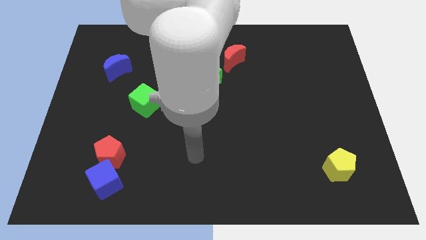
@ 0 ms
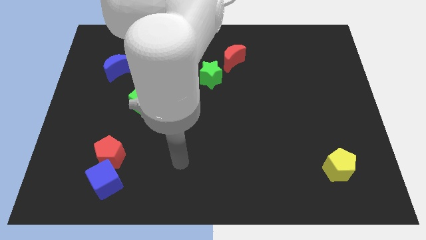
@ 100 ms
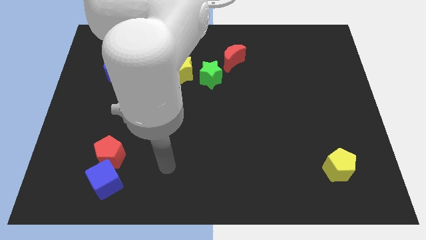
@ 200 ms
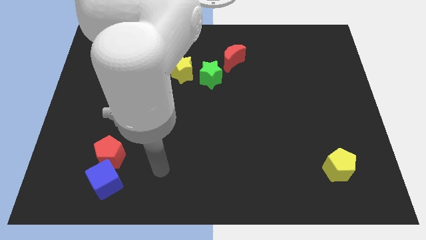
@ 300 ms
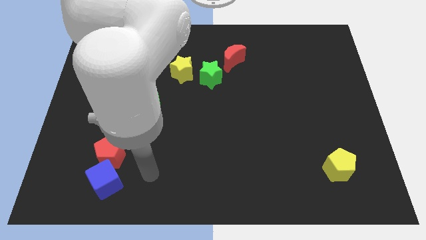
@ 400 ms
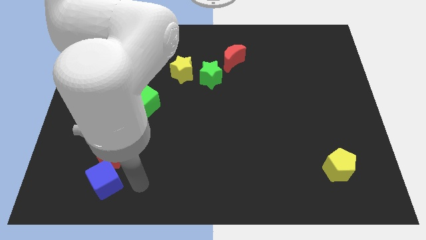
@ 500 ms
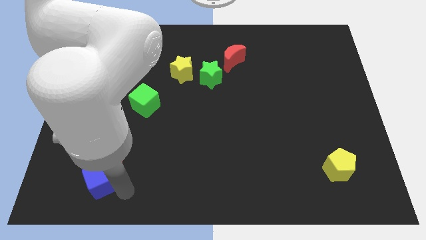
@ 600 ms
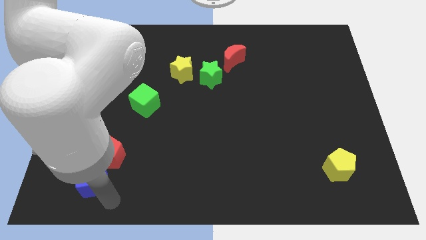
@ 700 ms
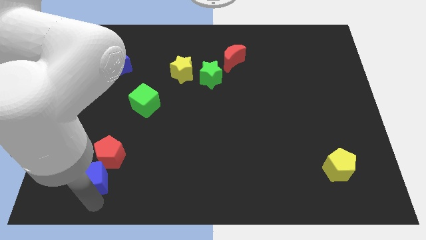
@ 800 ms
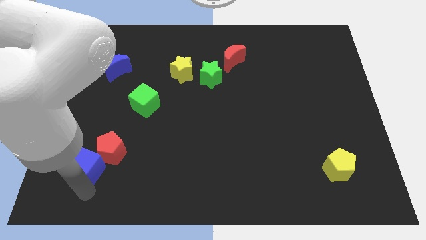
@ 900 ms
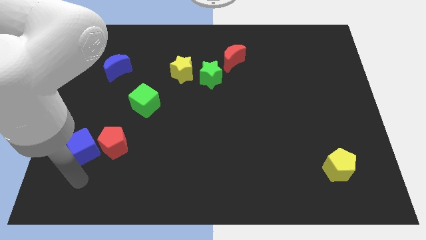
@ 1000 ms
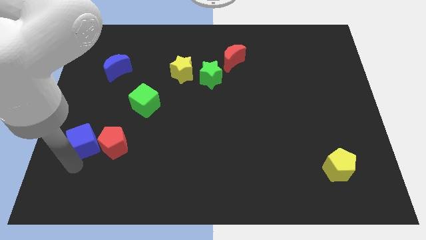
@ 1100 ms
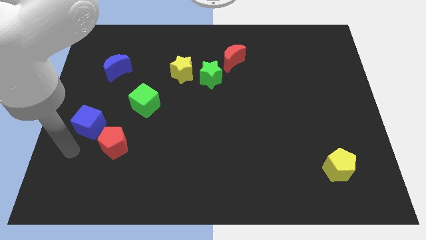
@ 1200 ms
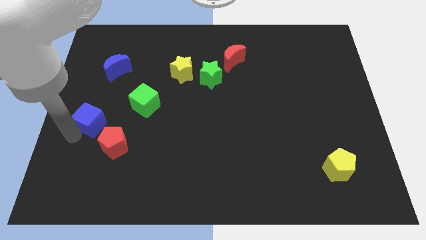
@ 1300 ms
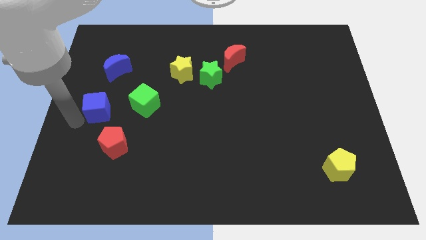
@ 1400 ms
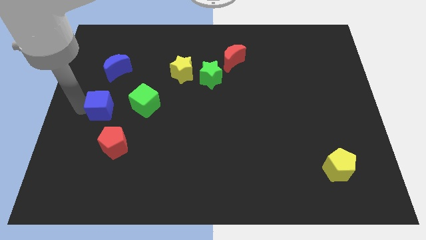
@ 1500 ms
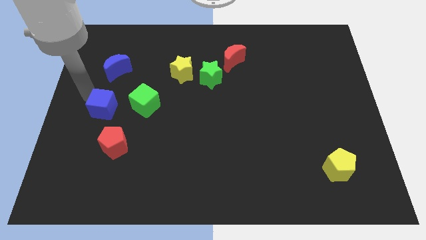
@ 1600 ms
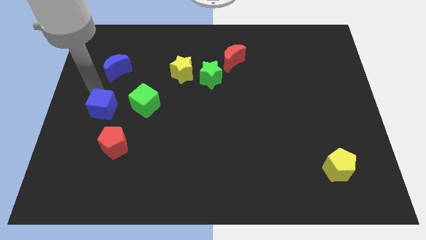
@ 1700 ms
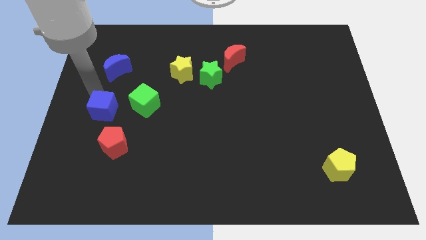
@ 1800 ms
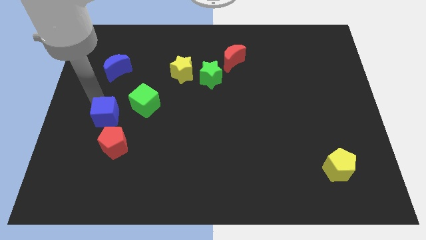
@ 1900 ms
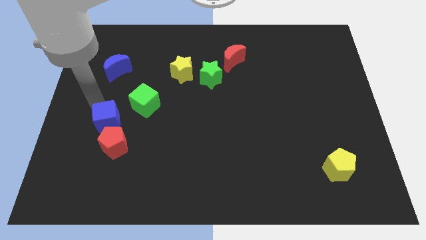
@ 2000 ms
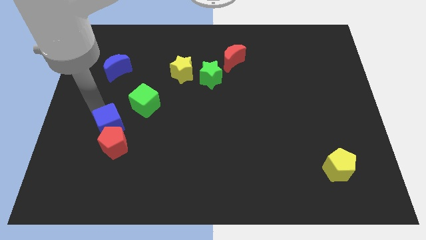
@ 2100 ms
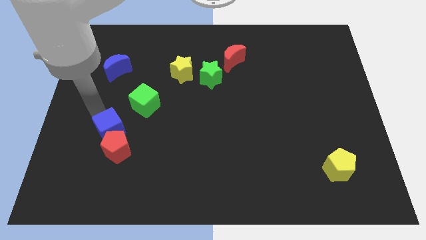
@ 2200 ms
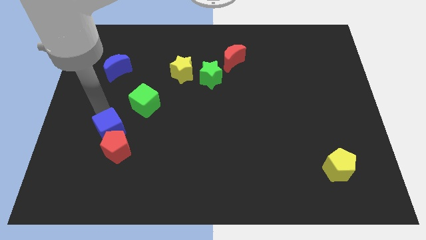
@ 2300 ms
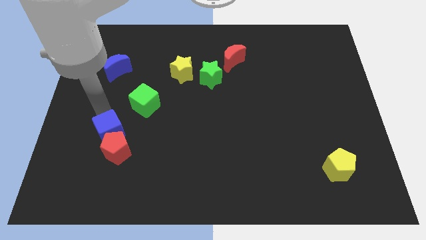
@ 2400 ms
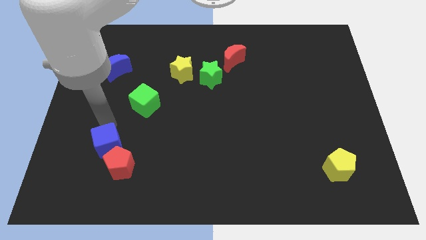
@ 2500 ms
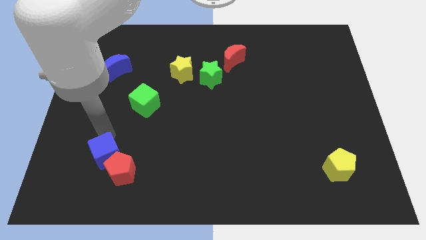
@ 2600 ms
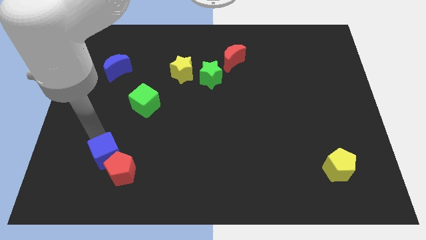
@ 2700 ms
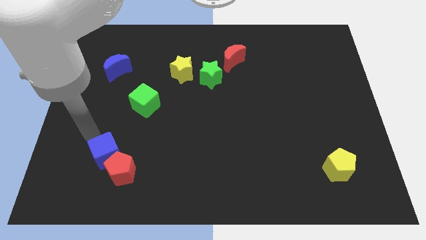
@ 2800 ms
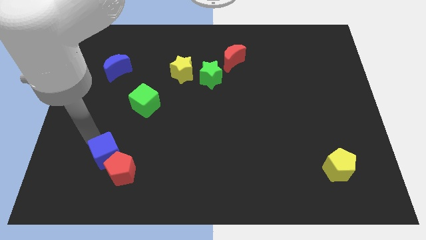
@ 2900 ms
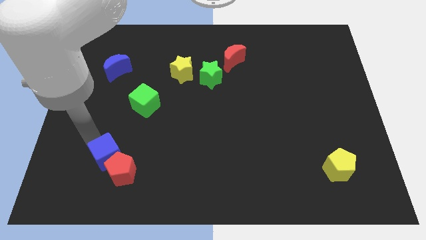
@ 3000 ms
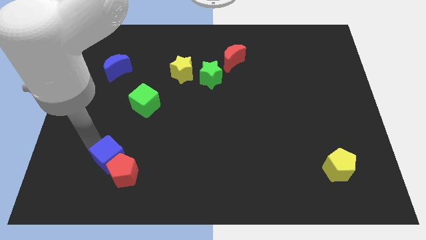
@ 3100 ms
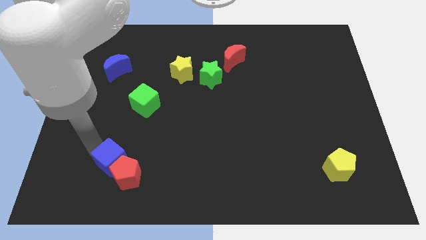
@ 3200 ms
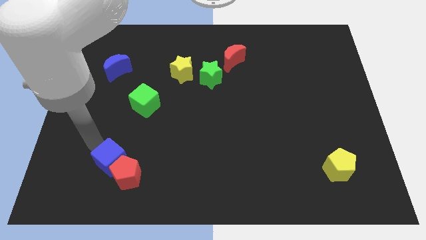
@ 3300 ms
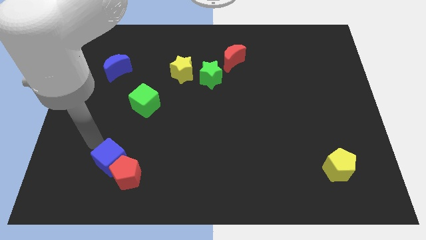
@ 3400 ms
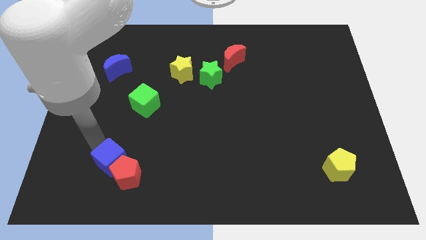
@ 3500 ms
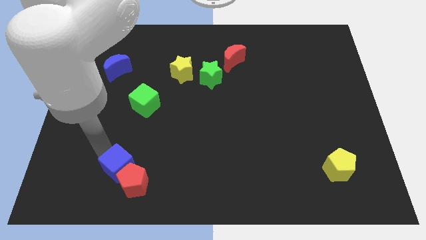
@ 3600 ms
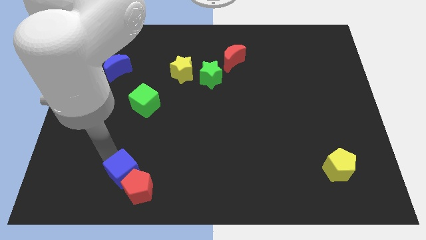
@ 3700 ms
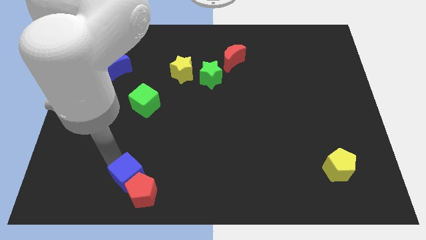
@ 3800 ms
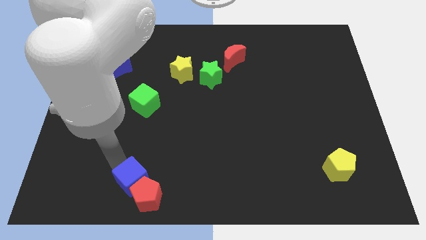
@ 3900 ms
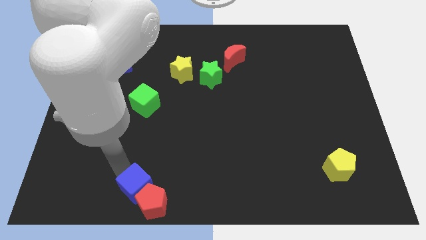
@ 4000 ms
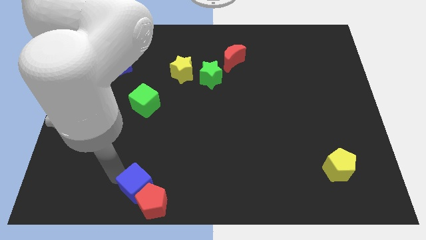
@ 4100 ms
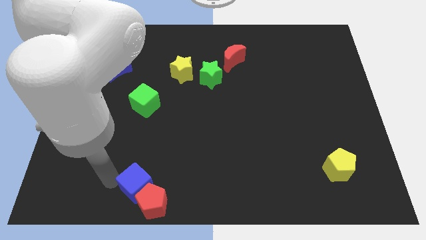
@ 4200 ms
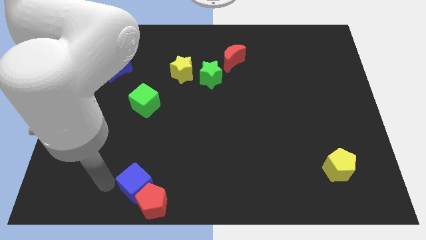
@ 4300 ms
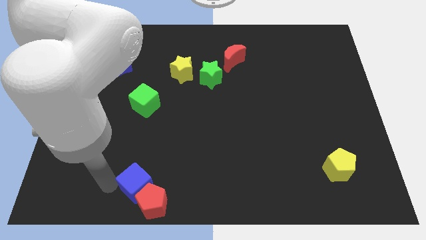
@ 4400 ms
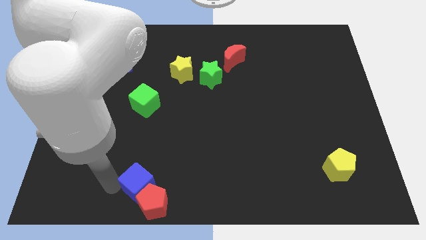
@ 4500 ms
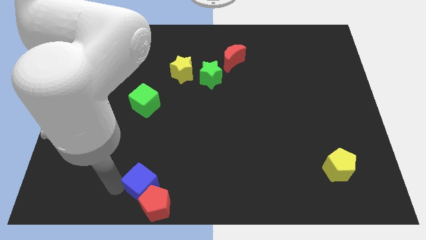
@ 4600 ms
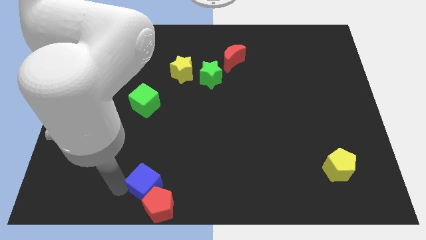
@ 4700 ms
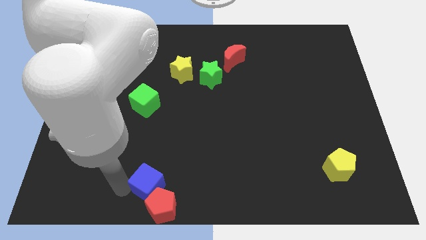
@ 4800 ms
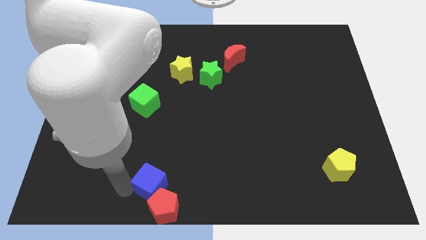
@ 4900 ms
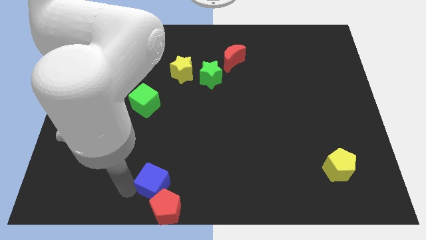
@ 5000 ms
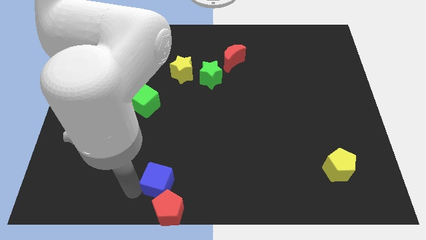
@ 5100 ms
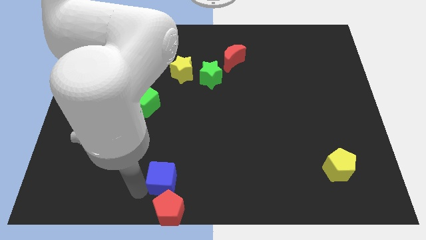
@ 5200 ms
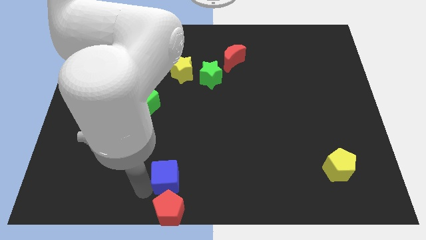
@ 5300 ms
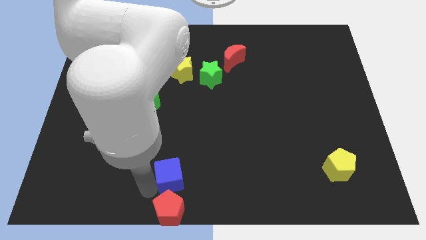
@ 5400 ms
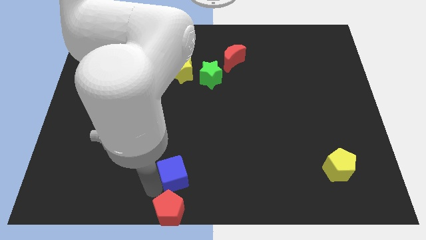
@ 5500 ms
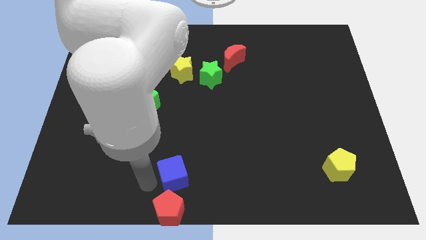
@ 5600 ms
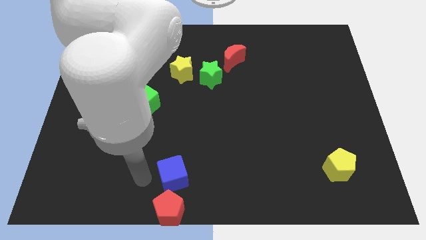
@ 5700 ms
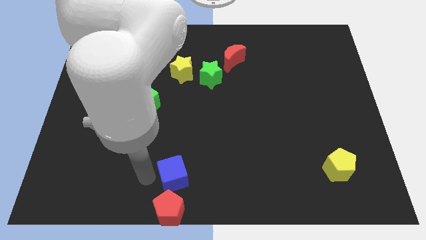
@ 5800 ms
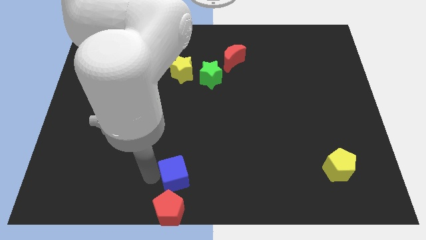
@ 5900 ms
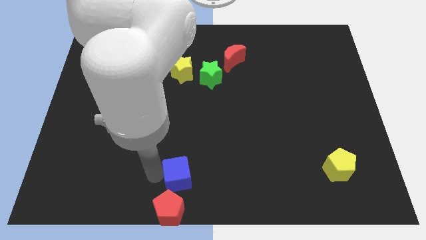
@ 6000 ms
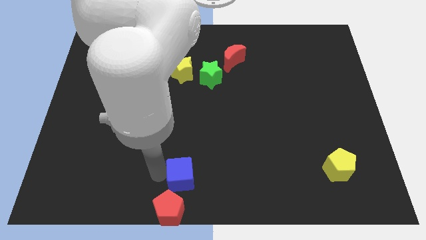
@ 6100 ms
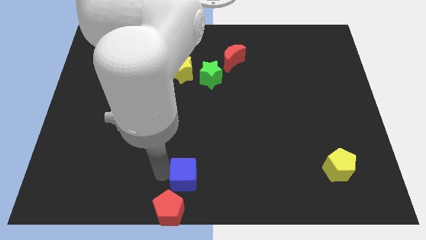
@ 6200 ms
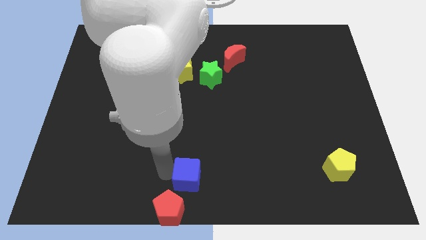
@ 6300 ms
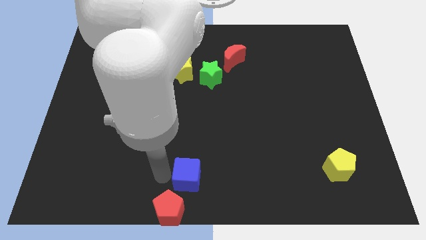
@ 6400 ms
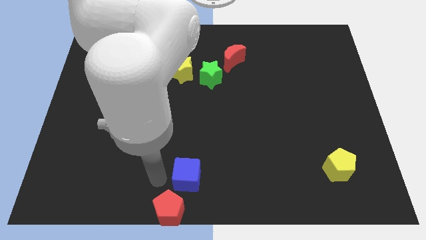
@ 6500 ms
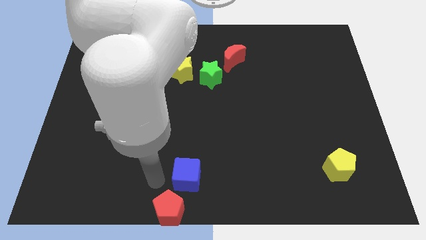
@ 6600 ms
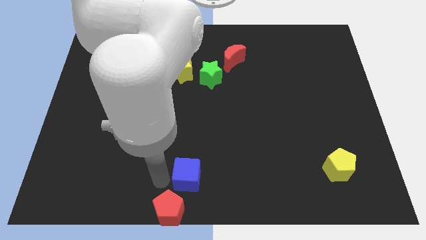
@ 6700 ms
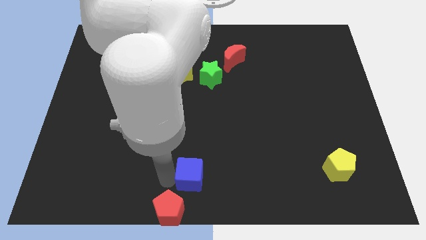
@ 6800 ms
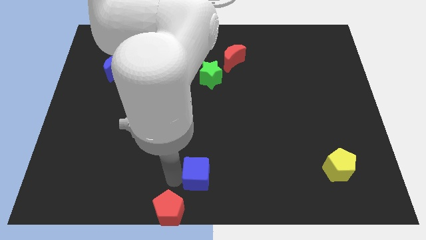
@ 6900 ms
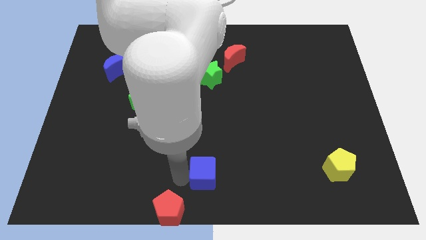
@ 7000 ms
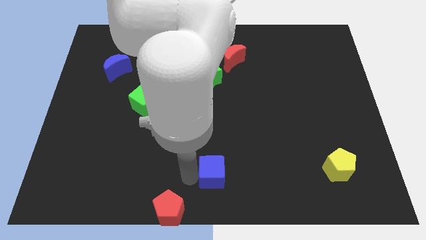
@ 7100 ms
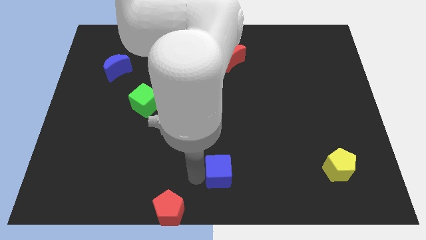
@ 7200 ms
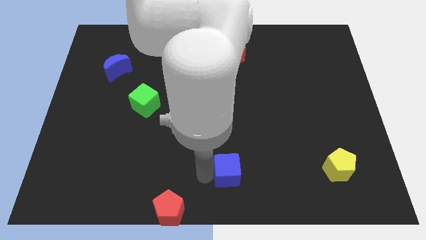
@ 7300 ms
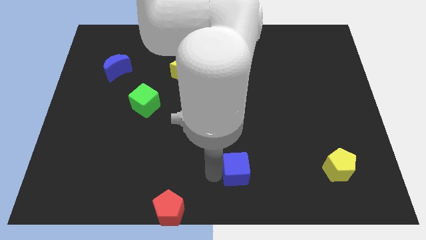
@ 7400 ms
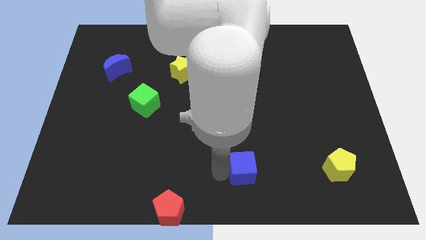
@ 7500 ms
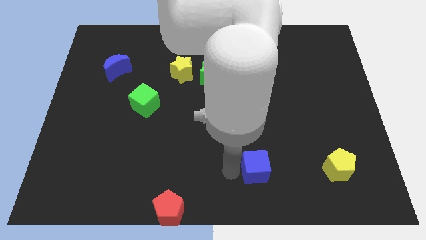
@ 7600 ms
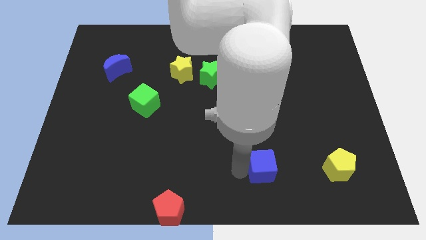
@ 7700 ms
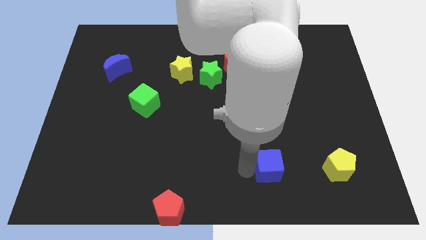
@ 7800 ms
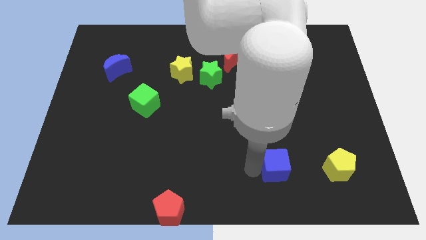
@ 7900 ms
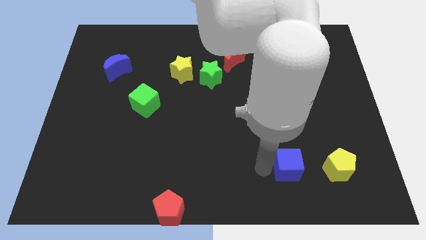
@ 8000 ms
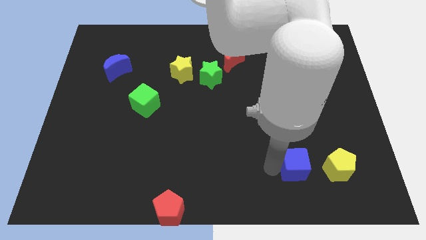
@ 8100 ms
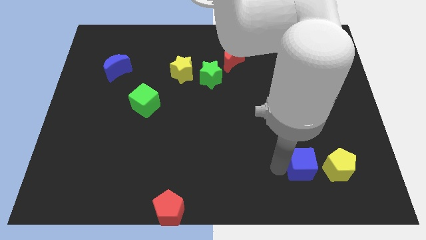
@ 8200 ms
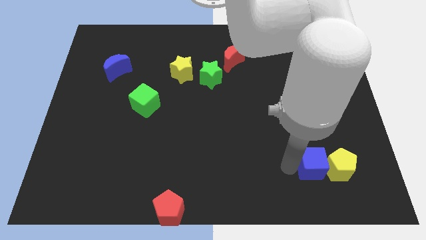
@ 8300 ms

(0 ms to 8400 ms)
push the blue cube to the yellow pentagon
